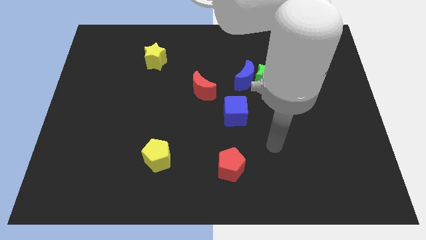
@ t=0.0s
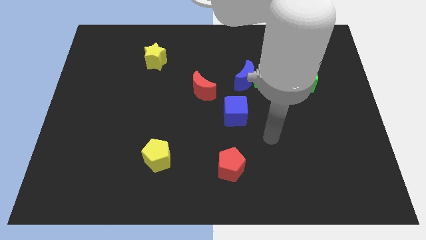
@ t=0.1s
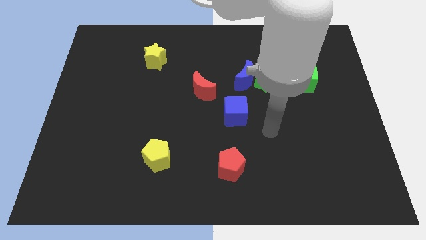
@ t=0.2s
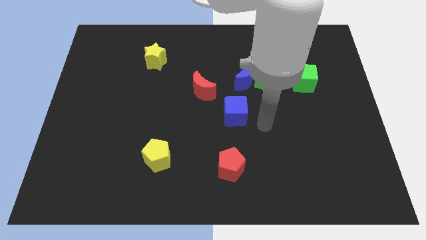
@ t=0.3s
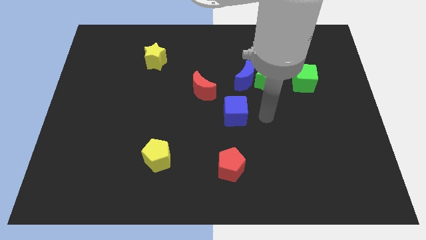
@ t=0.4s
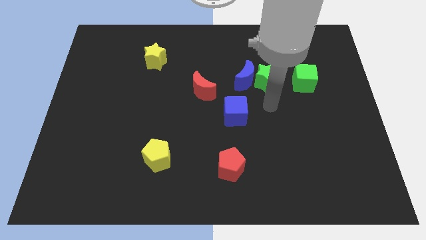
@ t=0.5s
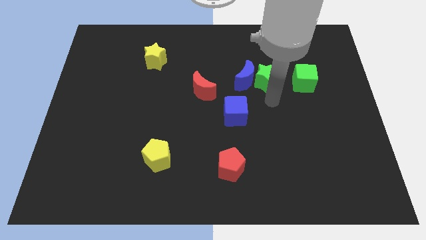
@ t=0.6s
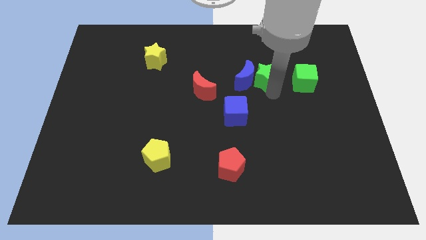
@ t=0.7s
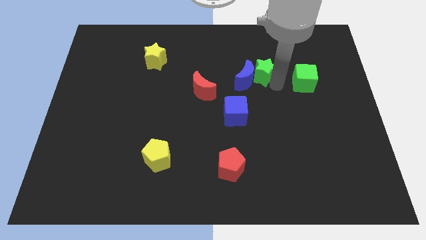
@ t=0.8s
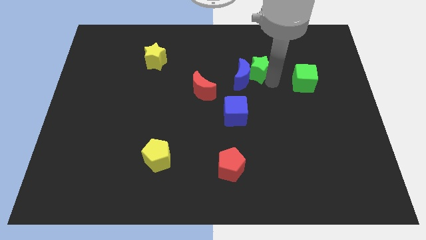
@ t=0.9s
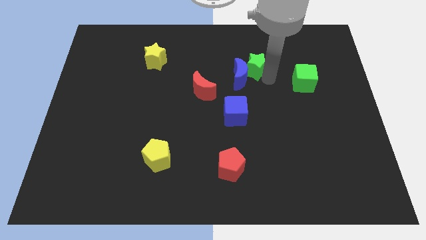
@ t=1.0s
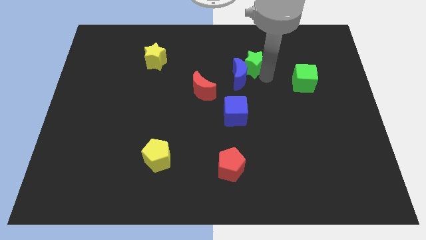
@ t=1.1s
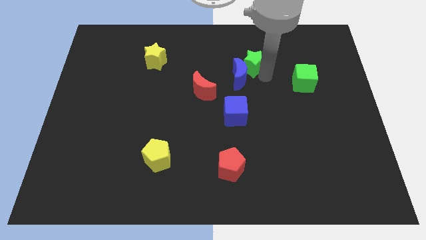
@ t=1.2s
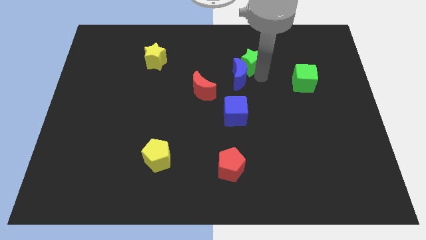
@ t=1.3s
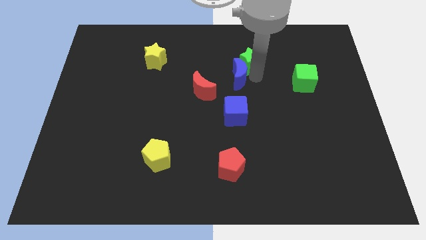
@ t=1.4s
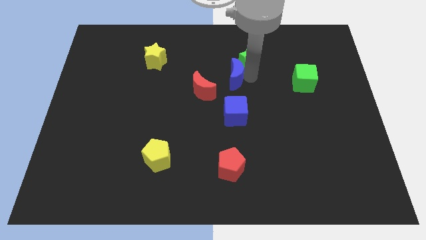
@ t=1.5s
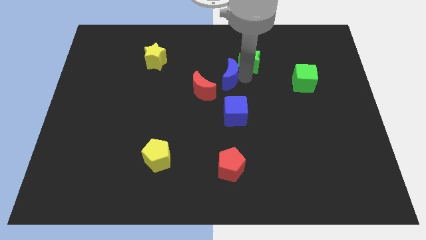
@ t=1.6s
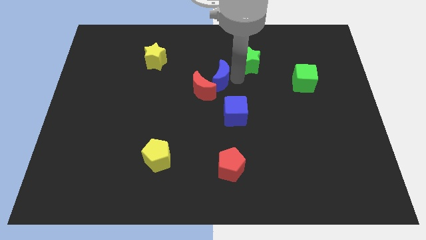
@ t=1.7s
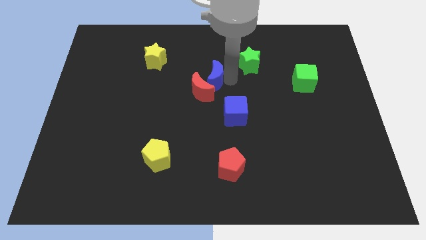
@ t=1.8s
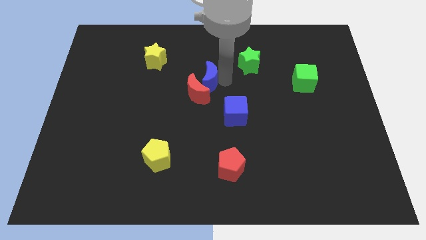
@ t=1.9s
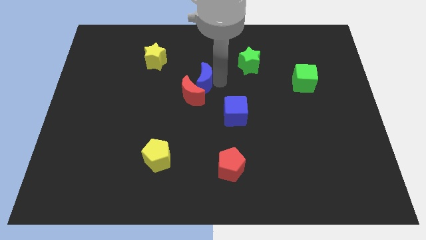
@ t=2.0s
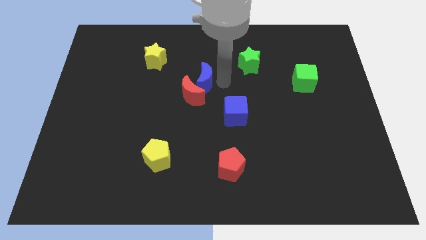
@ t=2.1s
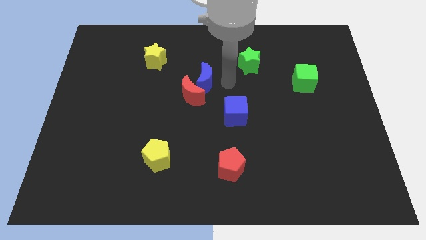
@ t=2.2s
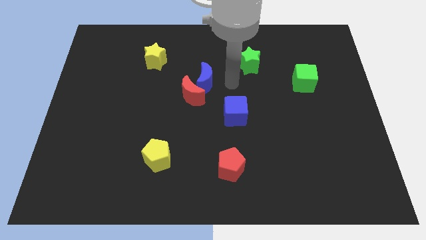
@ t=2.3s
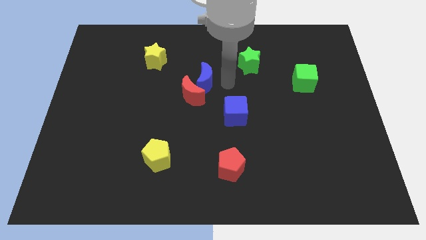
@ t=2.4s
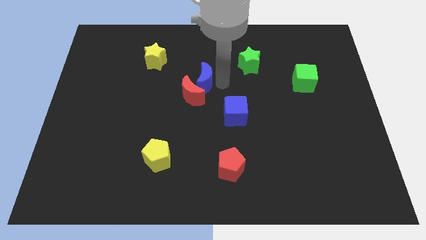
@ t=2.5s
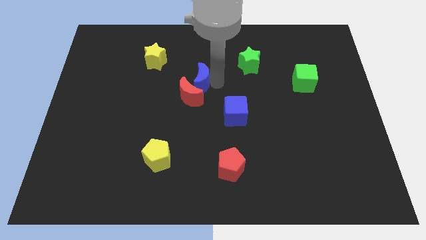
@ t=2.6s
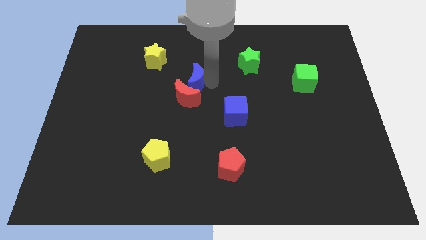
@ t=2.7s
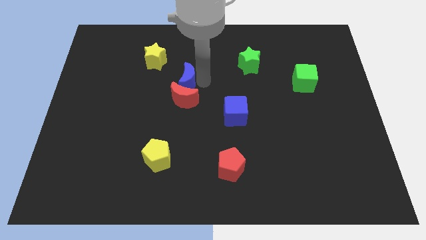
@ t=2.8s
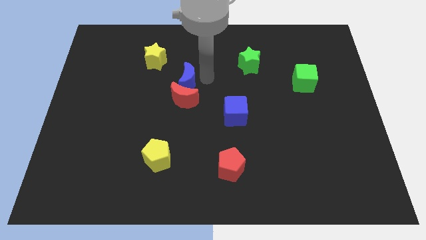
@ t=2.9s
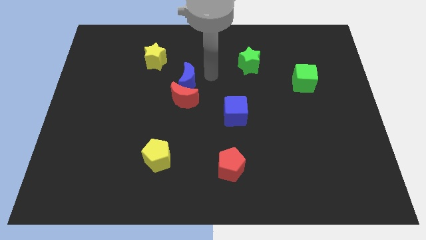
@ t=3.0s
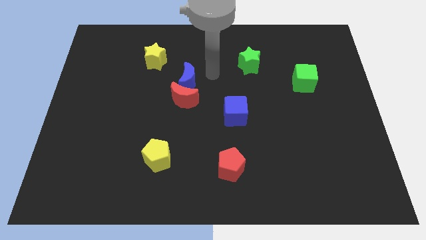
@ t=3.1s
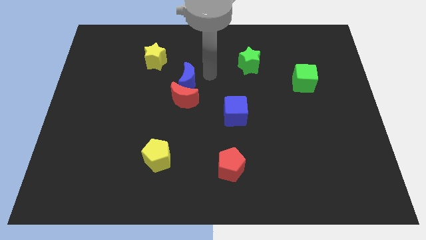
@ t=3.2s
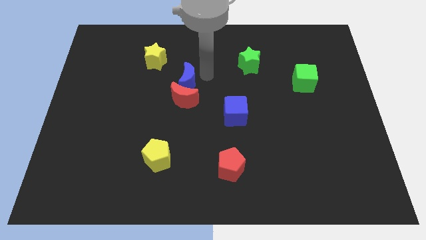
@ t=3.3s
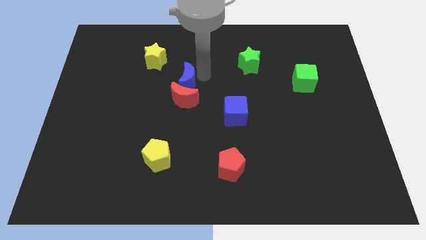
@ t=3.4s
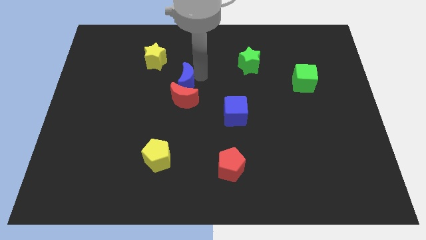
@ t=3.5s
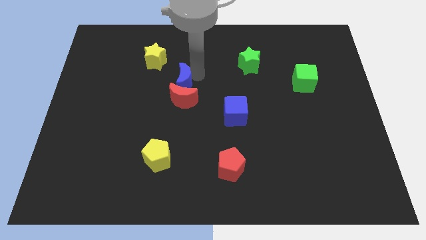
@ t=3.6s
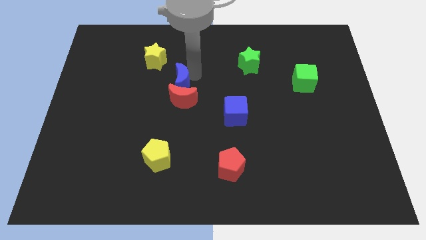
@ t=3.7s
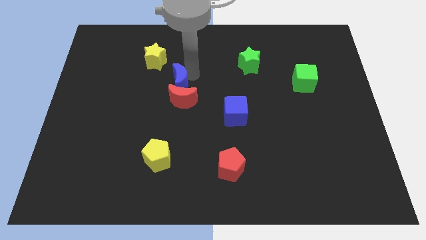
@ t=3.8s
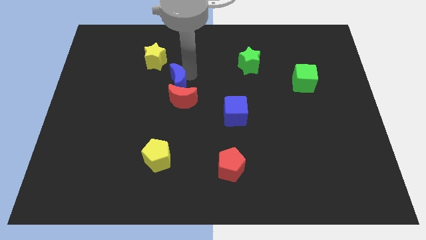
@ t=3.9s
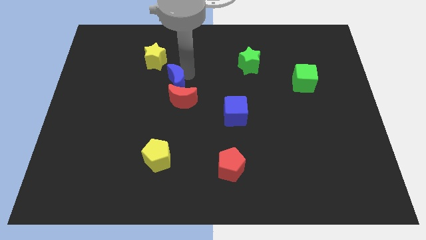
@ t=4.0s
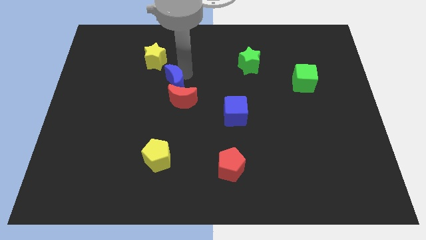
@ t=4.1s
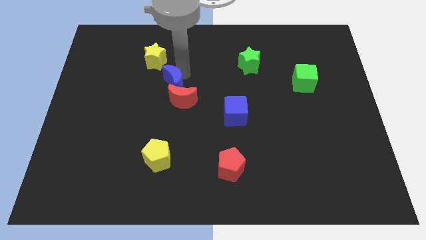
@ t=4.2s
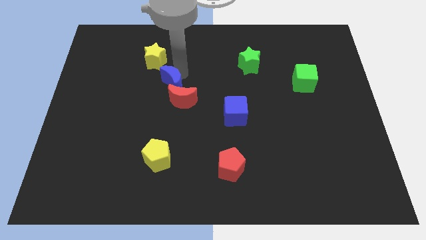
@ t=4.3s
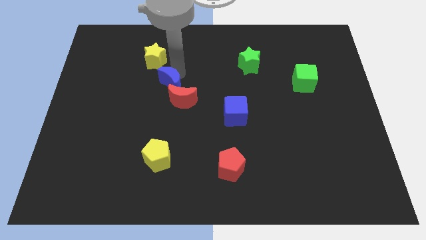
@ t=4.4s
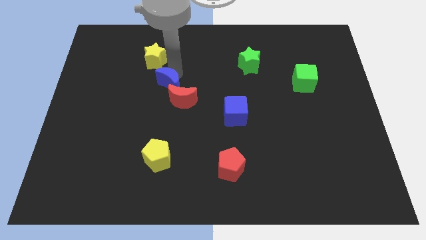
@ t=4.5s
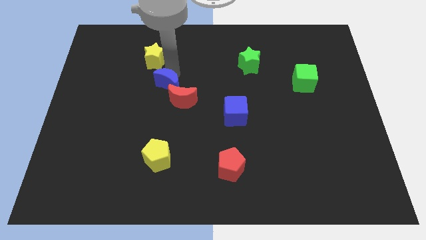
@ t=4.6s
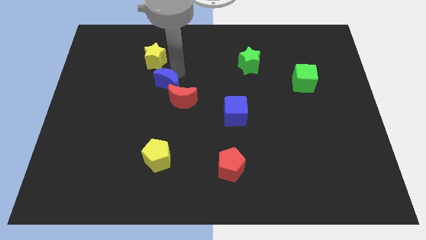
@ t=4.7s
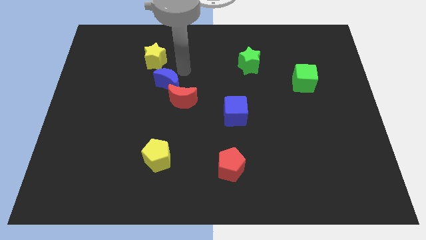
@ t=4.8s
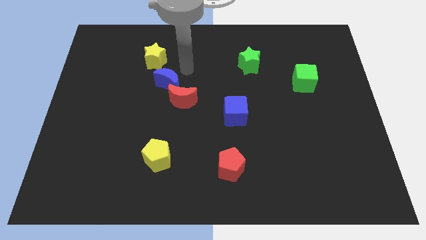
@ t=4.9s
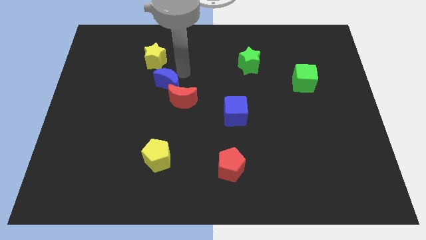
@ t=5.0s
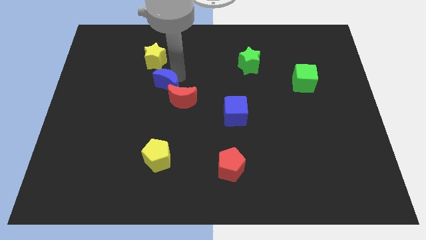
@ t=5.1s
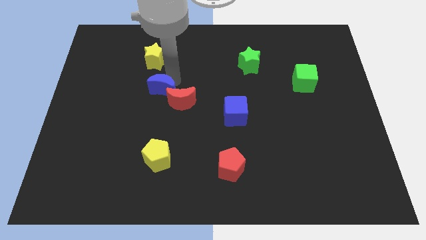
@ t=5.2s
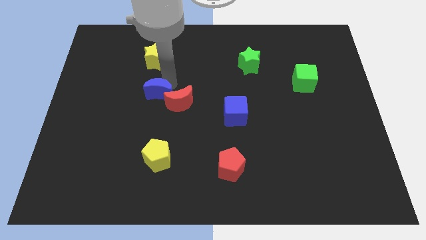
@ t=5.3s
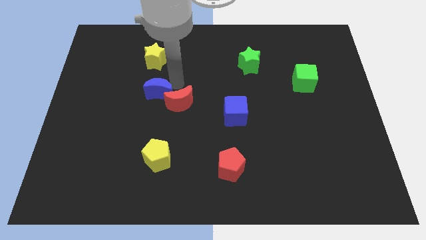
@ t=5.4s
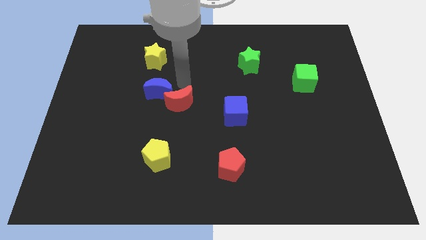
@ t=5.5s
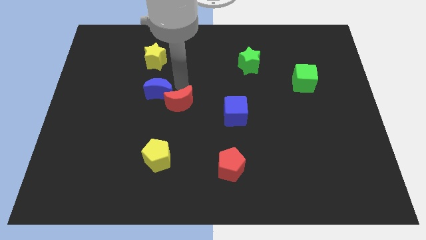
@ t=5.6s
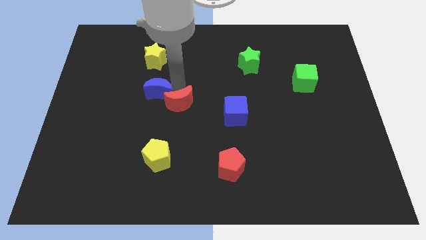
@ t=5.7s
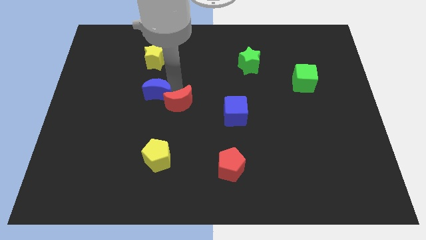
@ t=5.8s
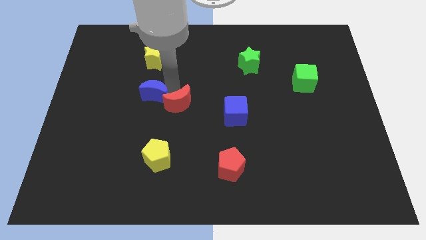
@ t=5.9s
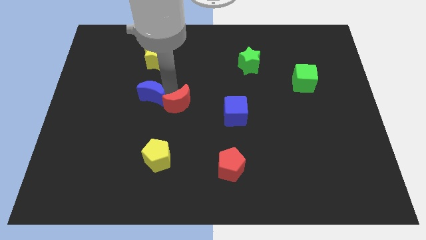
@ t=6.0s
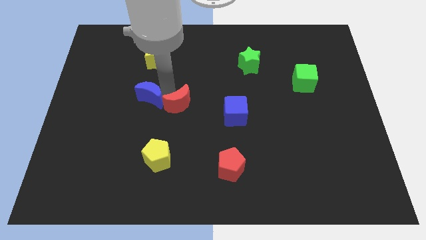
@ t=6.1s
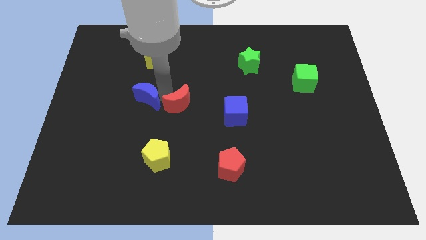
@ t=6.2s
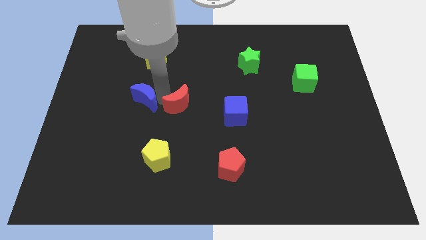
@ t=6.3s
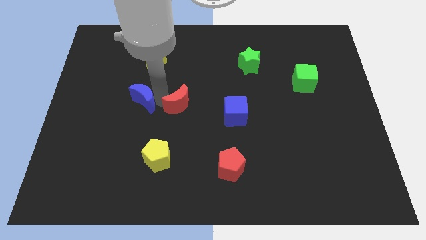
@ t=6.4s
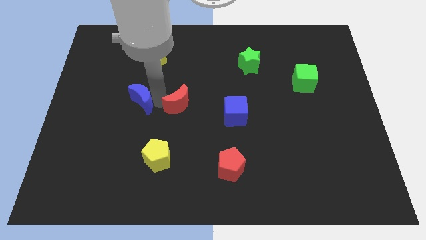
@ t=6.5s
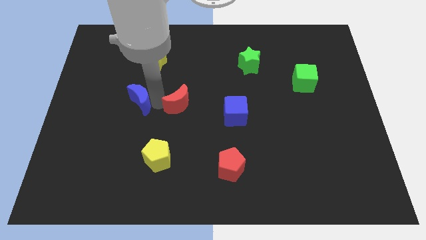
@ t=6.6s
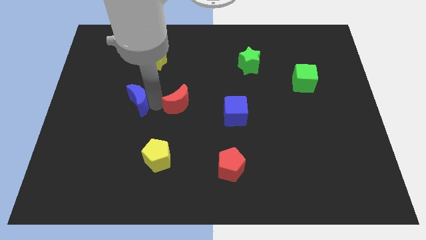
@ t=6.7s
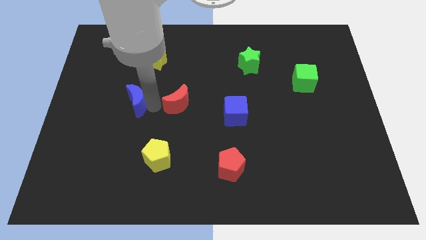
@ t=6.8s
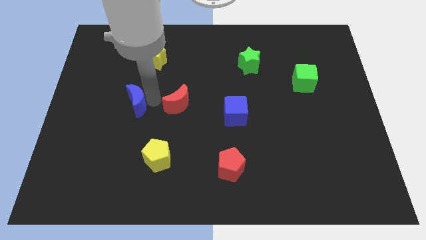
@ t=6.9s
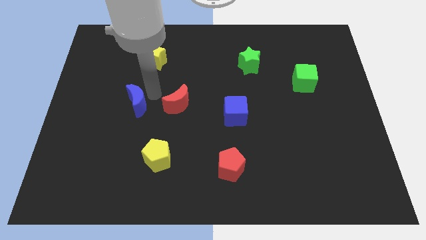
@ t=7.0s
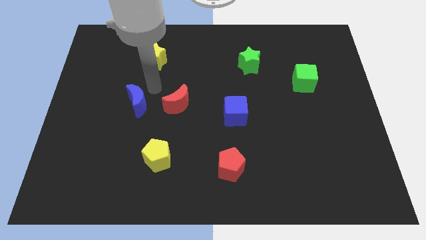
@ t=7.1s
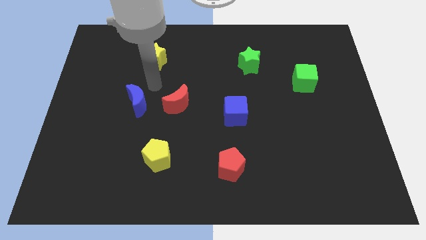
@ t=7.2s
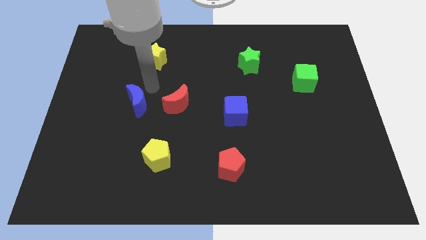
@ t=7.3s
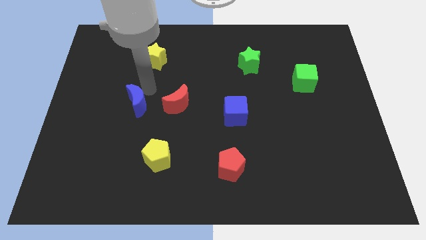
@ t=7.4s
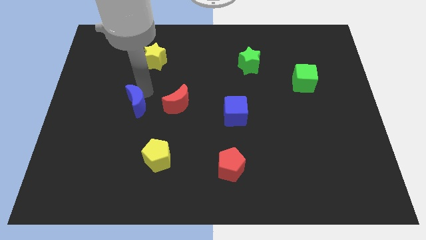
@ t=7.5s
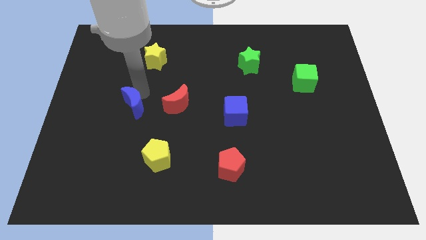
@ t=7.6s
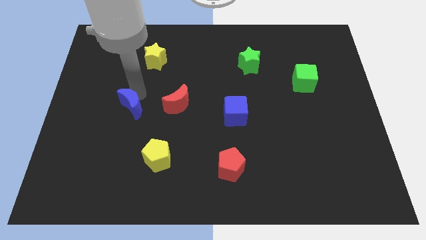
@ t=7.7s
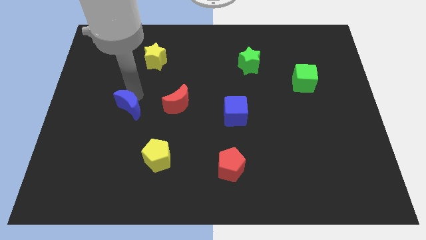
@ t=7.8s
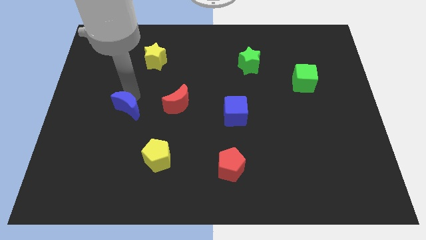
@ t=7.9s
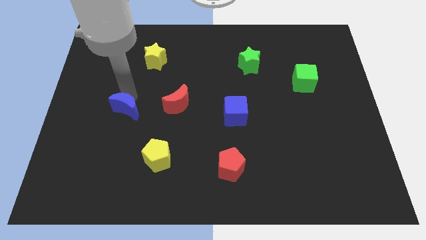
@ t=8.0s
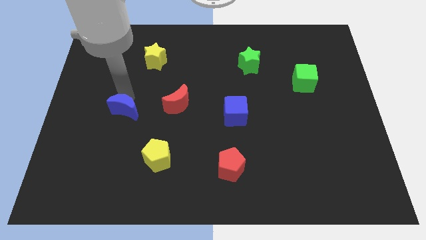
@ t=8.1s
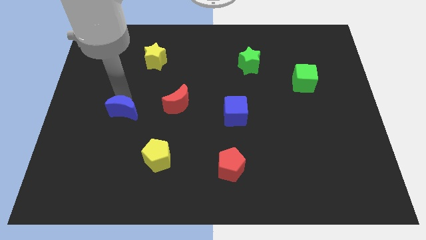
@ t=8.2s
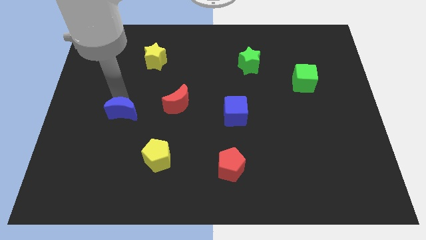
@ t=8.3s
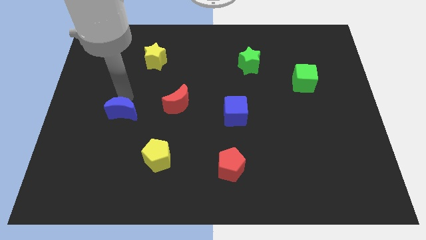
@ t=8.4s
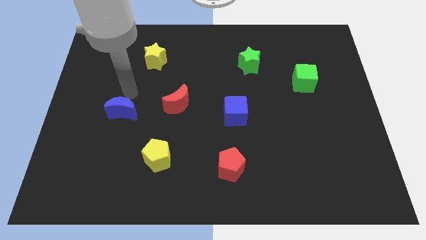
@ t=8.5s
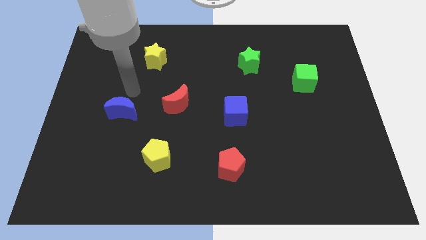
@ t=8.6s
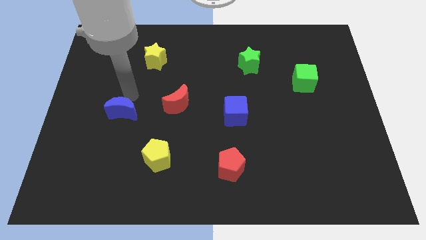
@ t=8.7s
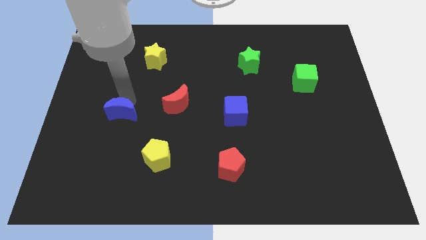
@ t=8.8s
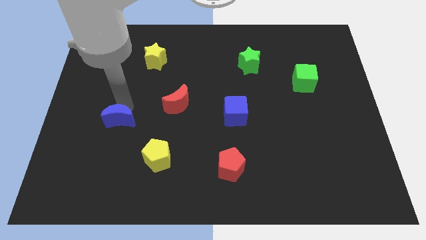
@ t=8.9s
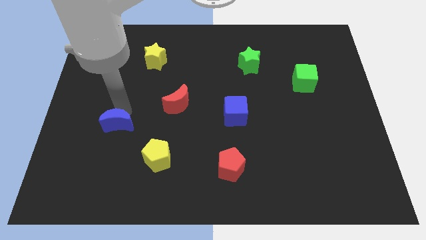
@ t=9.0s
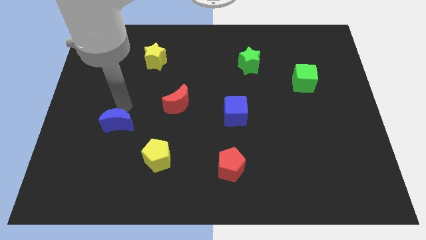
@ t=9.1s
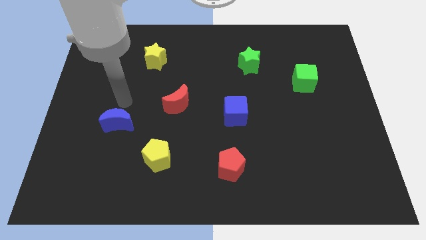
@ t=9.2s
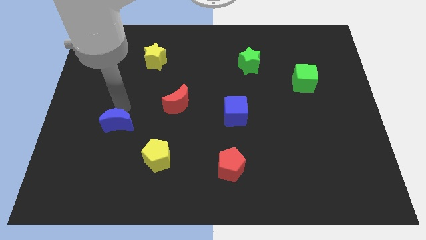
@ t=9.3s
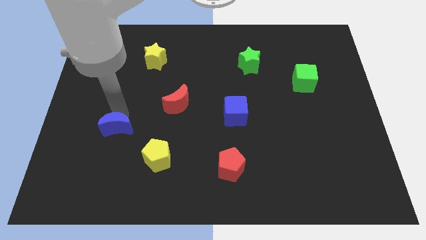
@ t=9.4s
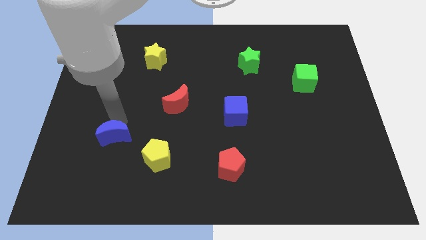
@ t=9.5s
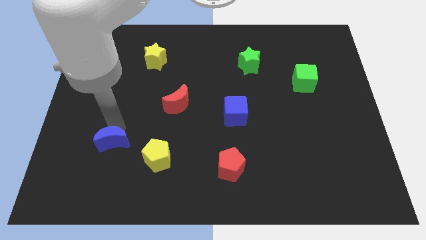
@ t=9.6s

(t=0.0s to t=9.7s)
slide the blue moon just left of the yellow pentagon
